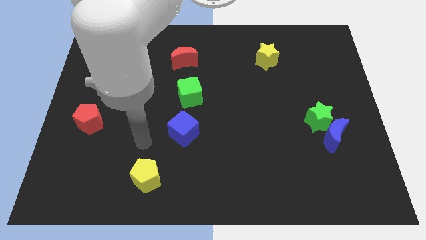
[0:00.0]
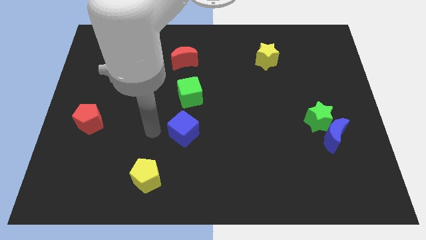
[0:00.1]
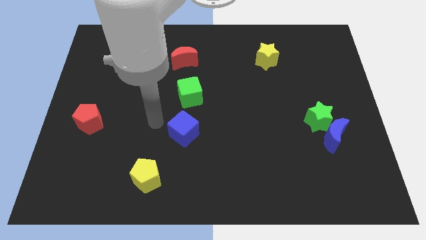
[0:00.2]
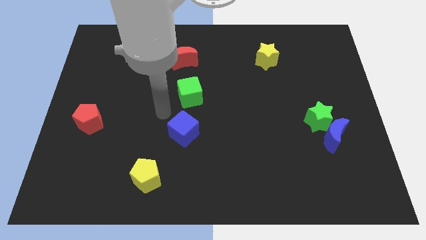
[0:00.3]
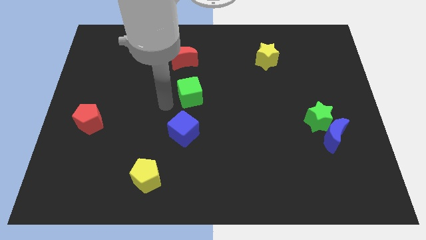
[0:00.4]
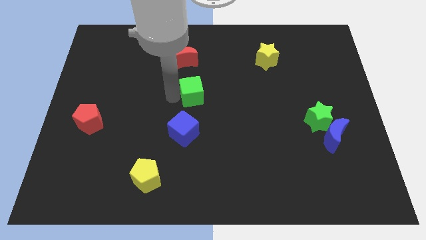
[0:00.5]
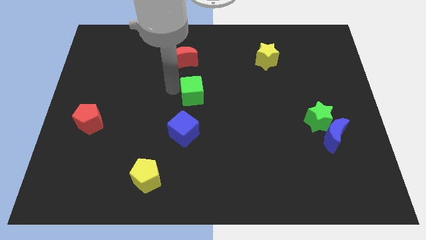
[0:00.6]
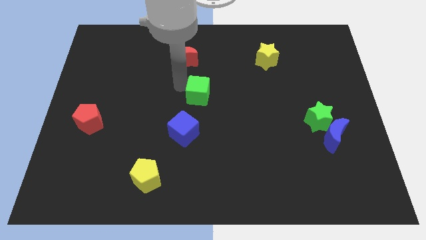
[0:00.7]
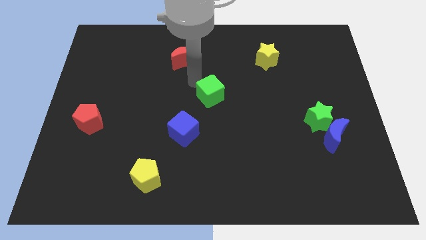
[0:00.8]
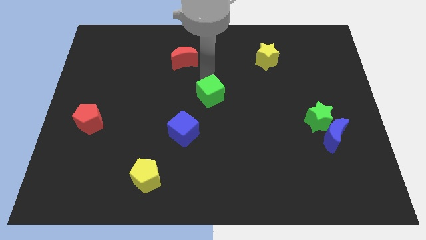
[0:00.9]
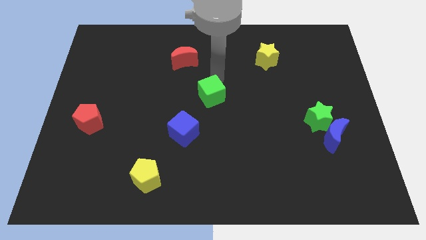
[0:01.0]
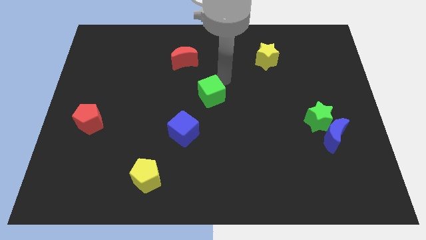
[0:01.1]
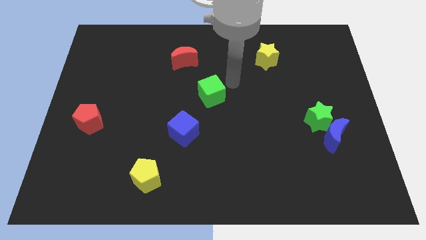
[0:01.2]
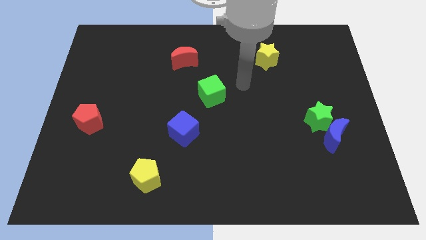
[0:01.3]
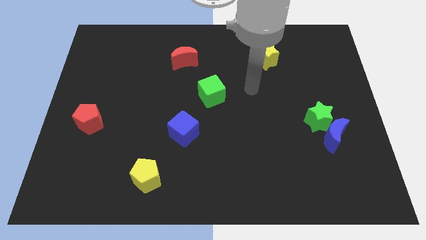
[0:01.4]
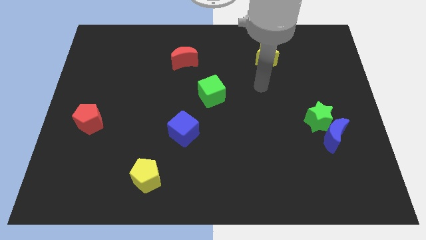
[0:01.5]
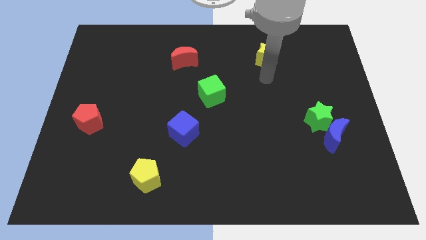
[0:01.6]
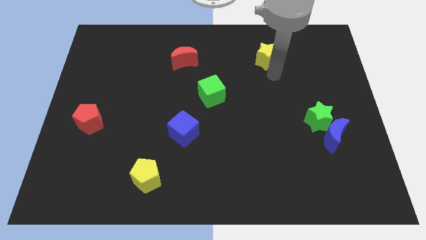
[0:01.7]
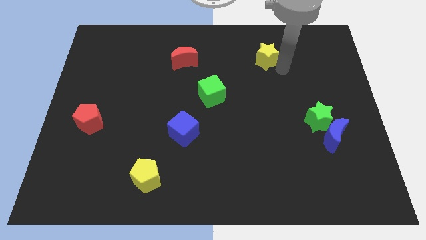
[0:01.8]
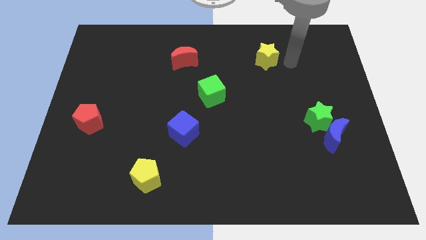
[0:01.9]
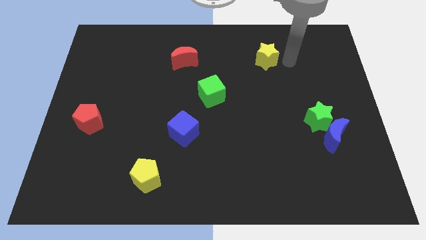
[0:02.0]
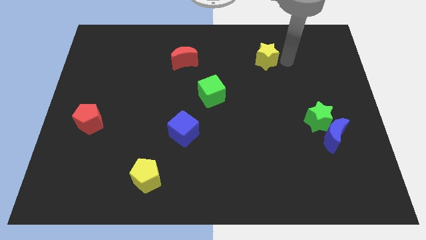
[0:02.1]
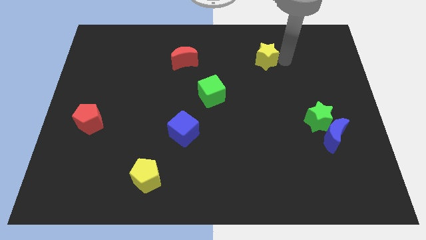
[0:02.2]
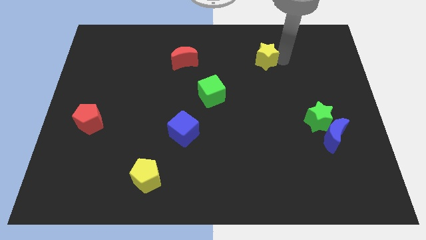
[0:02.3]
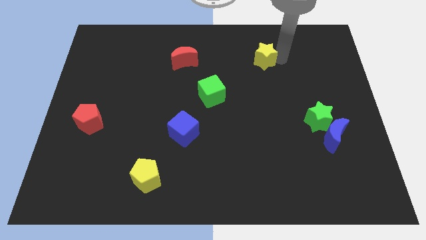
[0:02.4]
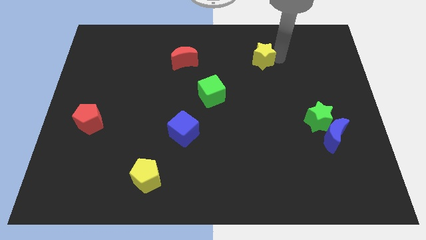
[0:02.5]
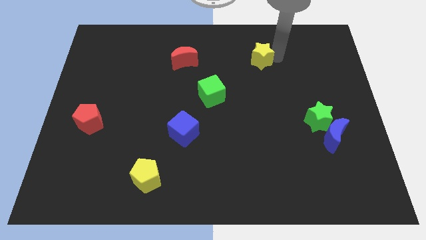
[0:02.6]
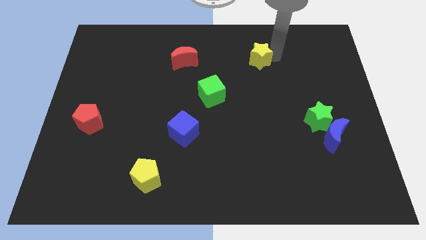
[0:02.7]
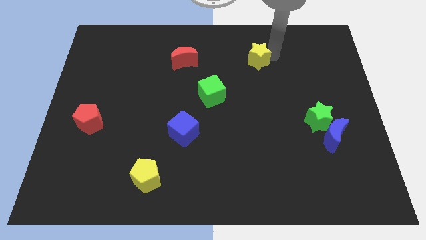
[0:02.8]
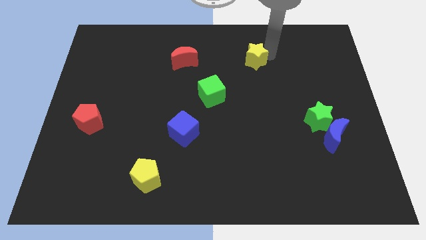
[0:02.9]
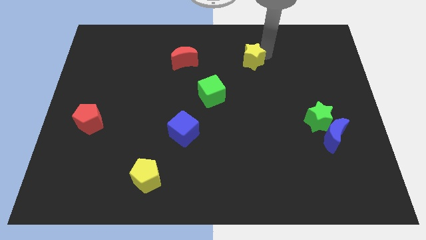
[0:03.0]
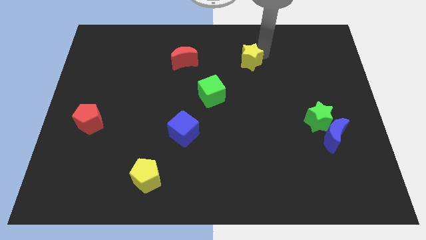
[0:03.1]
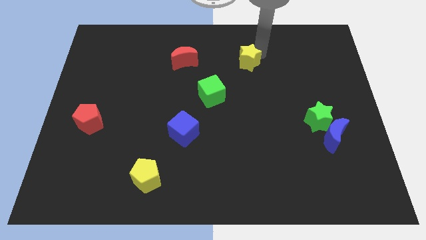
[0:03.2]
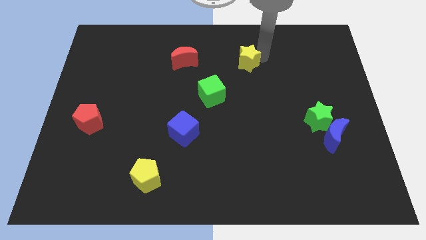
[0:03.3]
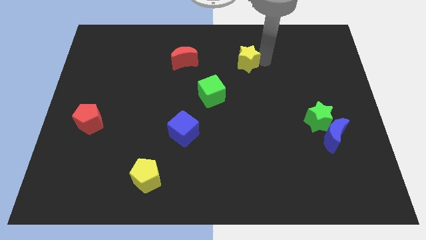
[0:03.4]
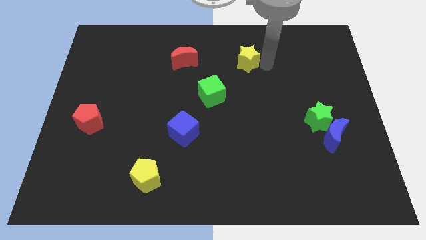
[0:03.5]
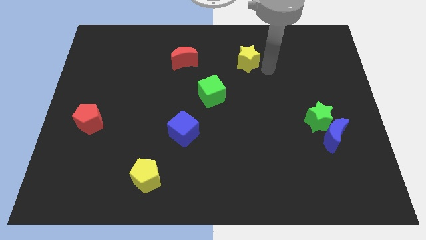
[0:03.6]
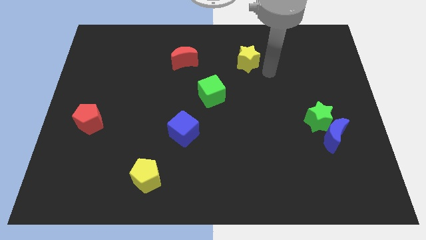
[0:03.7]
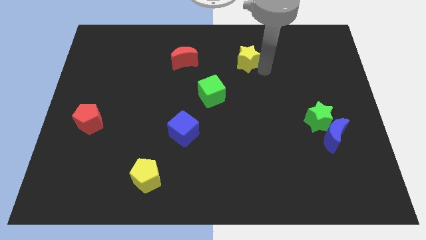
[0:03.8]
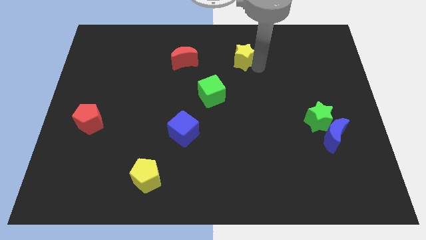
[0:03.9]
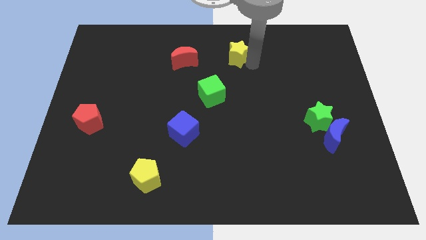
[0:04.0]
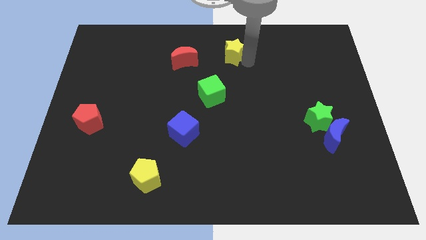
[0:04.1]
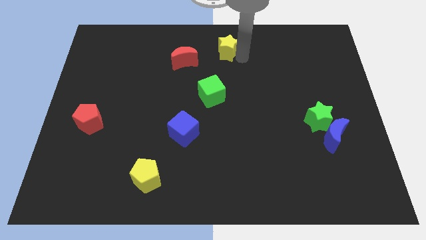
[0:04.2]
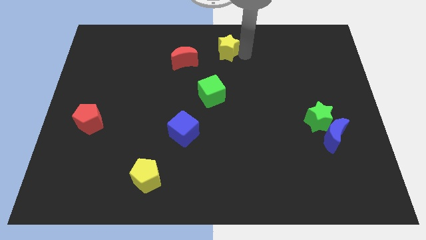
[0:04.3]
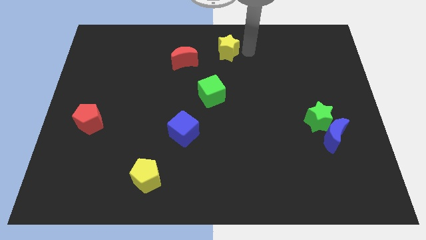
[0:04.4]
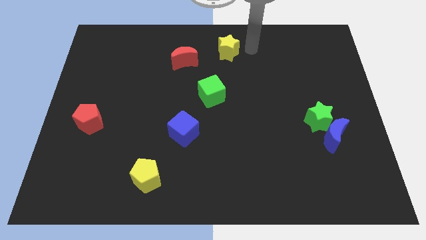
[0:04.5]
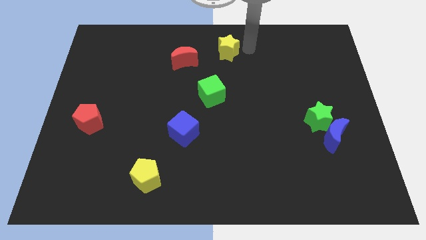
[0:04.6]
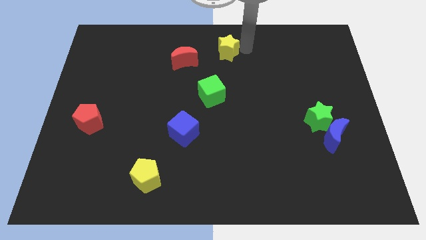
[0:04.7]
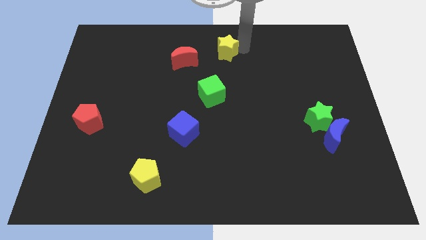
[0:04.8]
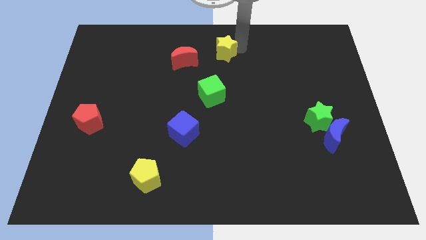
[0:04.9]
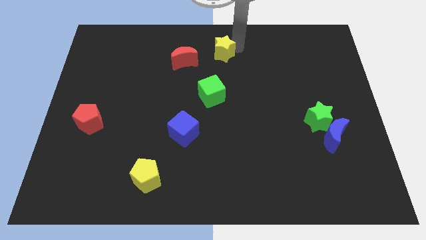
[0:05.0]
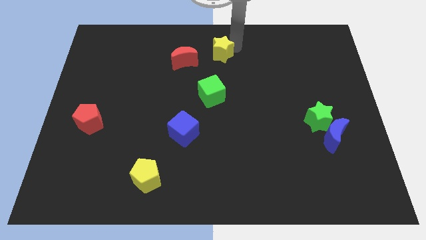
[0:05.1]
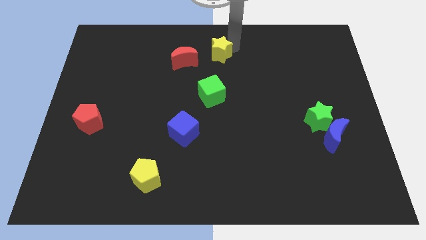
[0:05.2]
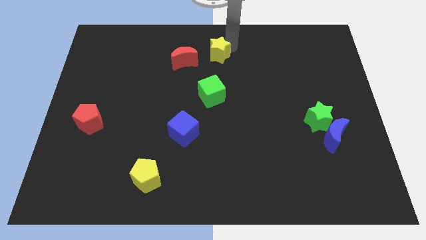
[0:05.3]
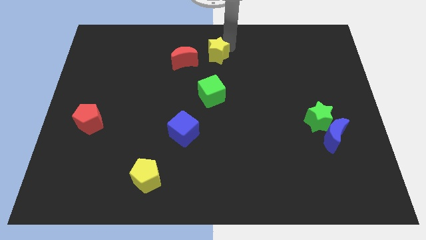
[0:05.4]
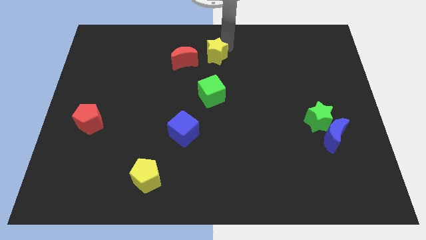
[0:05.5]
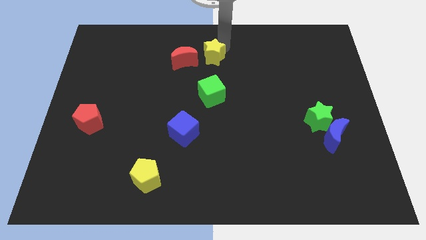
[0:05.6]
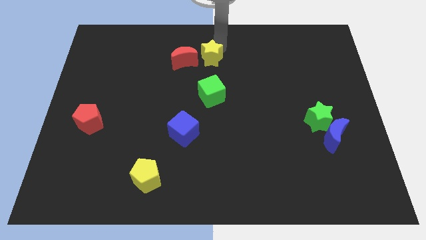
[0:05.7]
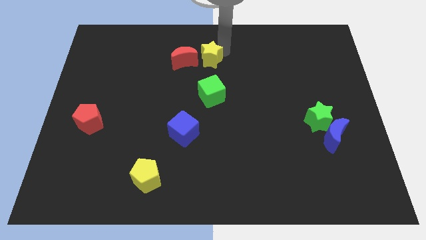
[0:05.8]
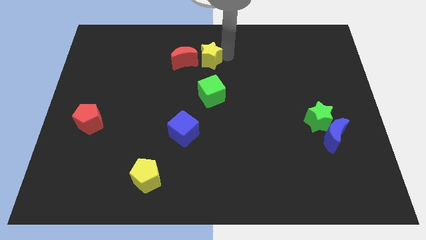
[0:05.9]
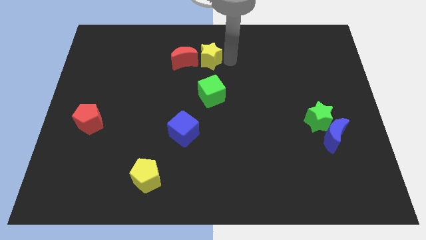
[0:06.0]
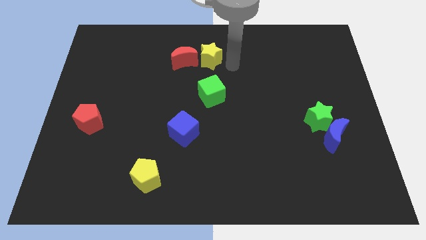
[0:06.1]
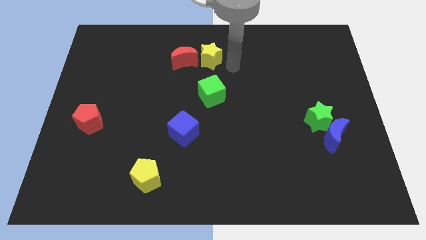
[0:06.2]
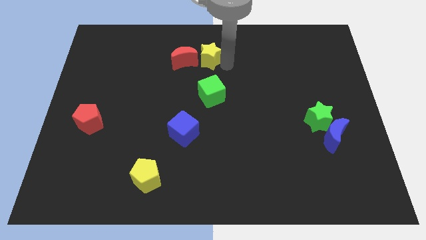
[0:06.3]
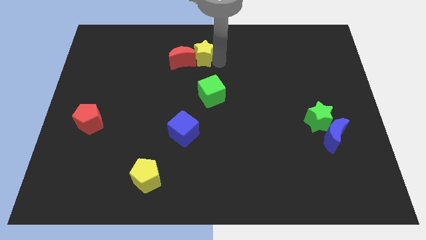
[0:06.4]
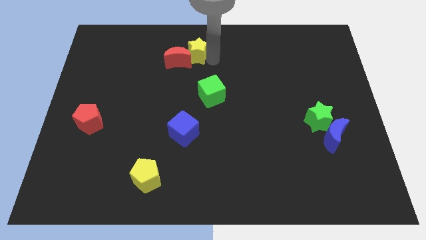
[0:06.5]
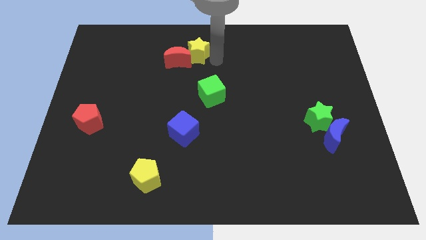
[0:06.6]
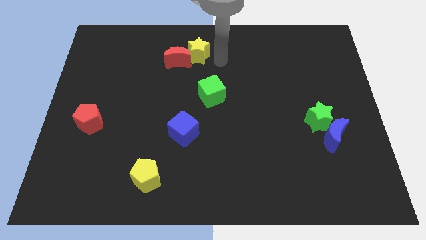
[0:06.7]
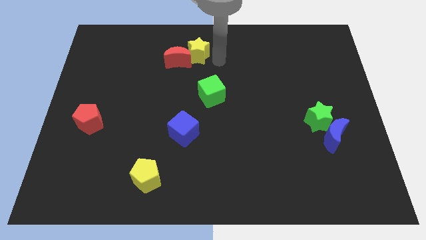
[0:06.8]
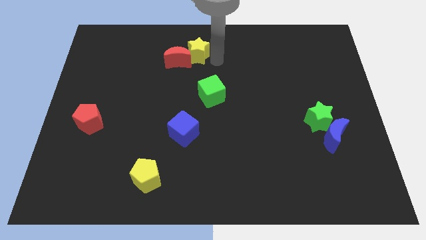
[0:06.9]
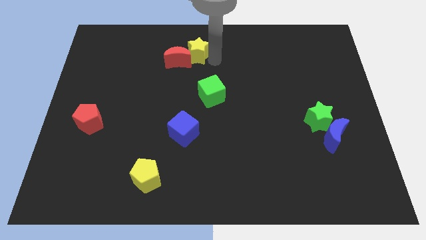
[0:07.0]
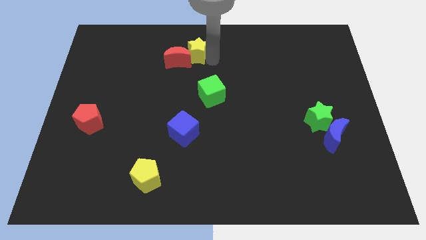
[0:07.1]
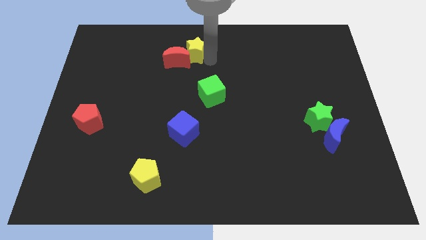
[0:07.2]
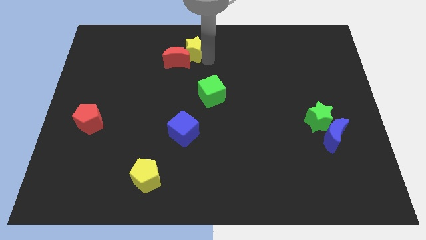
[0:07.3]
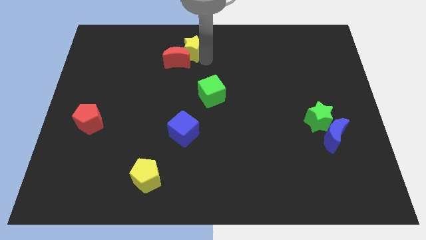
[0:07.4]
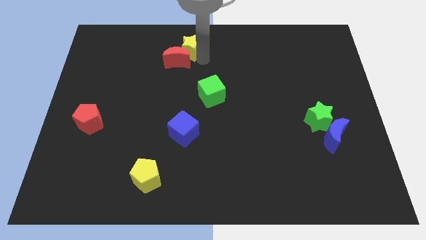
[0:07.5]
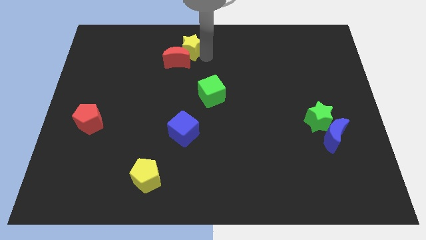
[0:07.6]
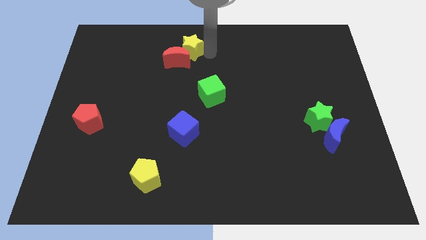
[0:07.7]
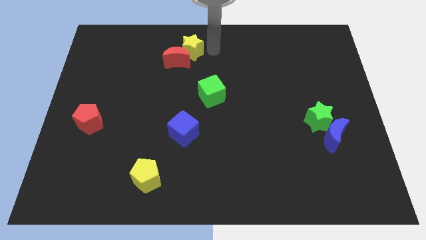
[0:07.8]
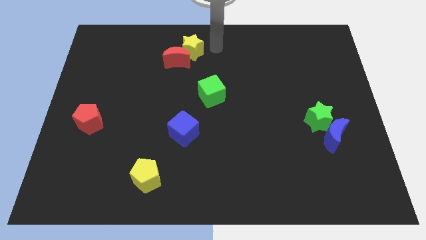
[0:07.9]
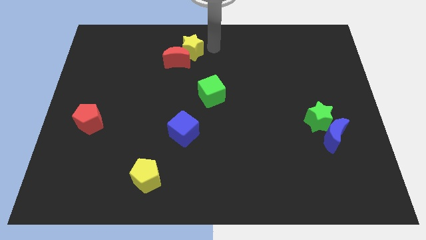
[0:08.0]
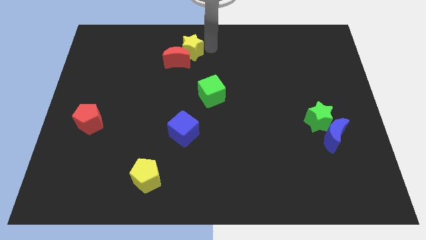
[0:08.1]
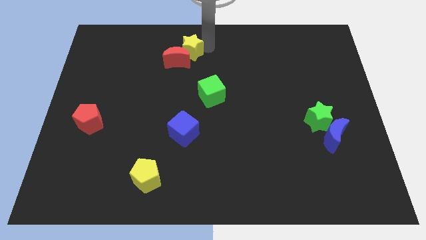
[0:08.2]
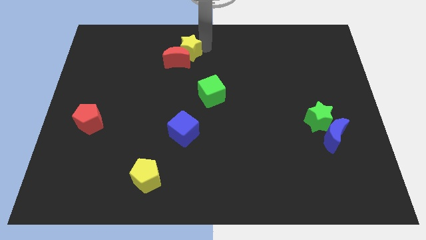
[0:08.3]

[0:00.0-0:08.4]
move the yellow star left
